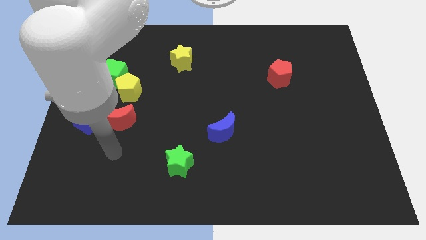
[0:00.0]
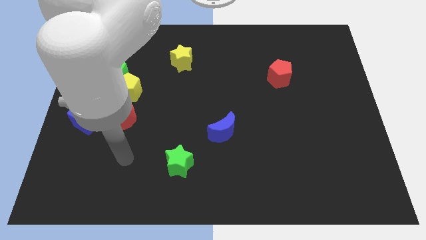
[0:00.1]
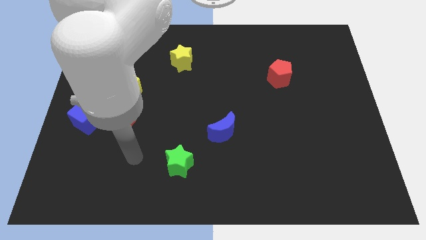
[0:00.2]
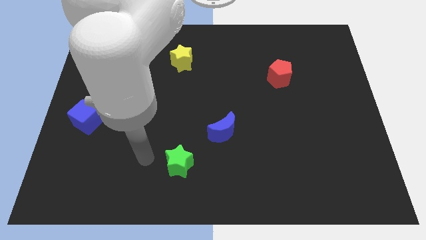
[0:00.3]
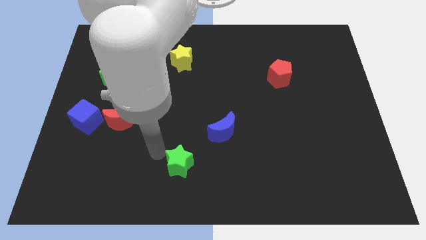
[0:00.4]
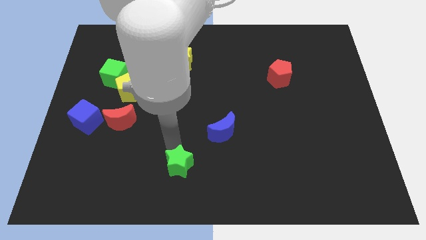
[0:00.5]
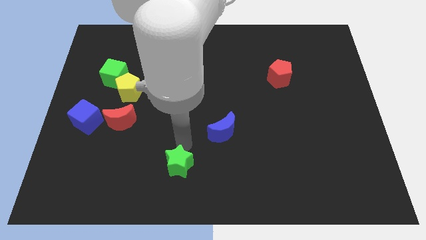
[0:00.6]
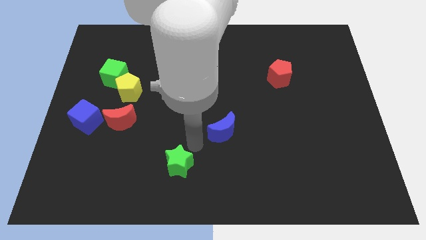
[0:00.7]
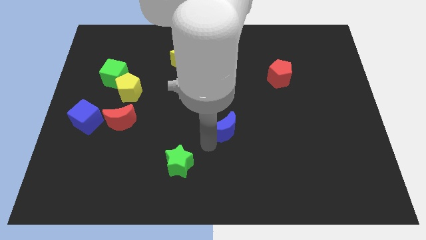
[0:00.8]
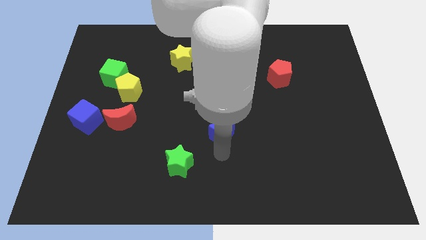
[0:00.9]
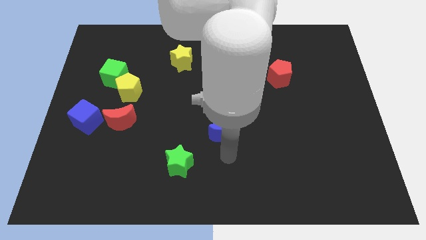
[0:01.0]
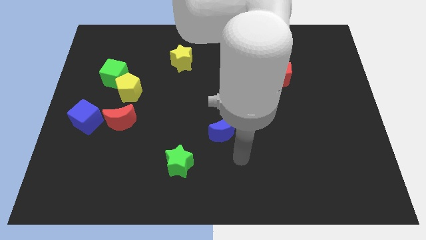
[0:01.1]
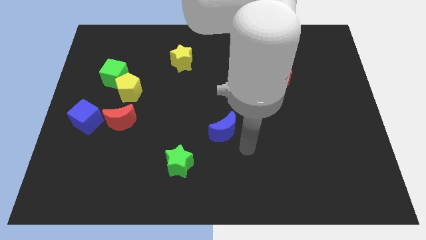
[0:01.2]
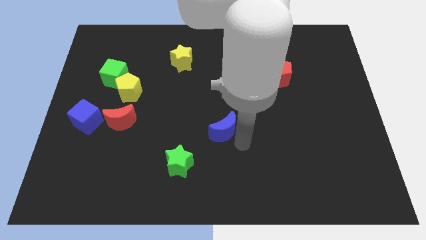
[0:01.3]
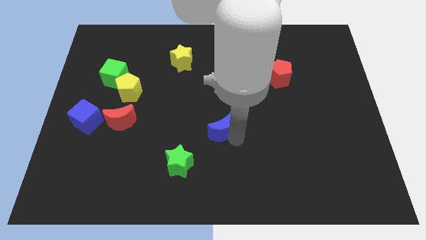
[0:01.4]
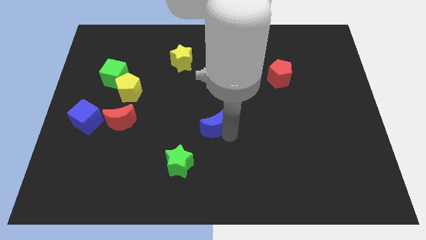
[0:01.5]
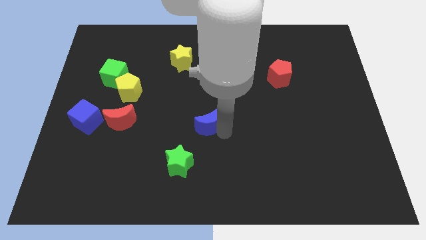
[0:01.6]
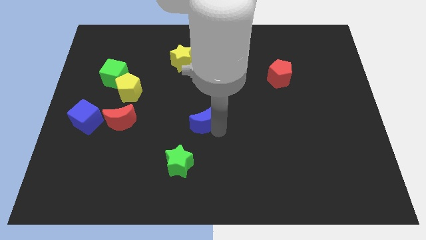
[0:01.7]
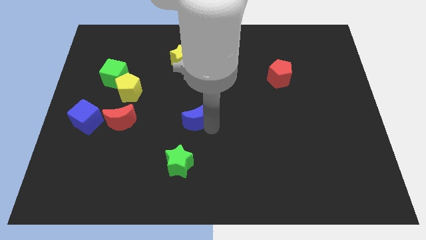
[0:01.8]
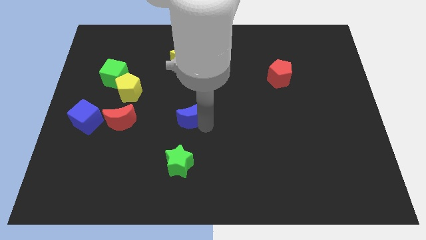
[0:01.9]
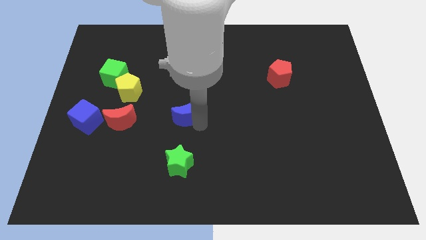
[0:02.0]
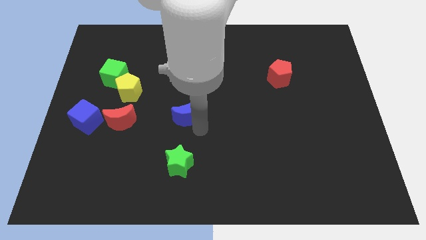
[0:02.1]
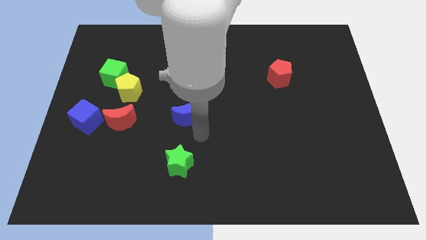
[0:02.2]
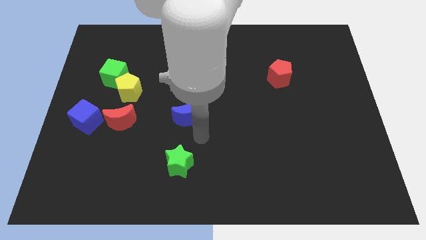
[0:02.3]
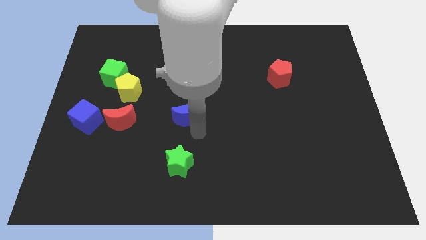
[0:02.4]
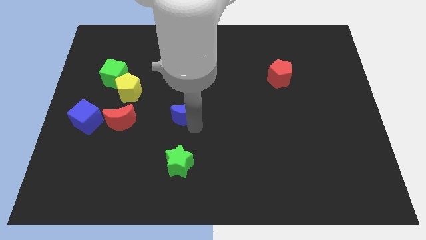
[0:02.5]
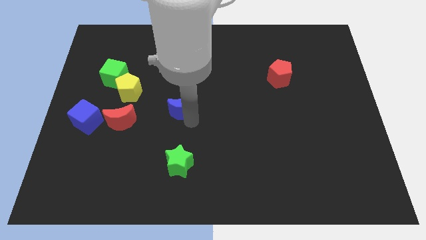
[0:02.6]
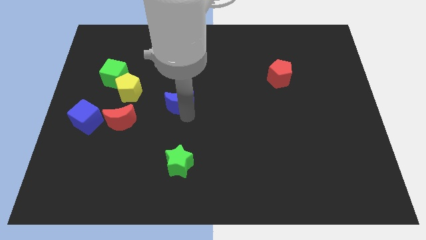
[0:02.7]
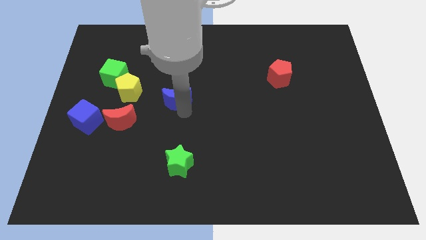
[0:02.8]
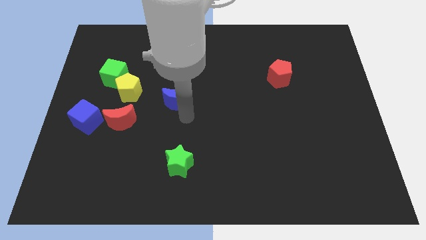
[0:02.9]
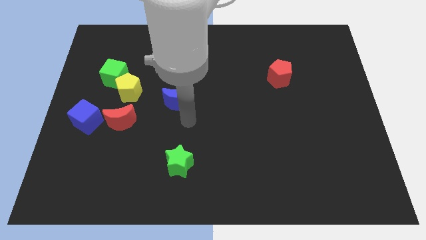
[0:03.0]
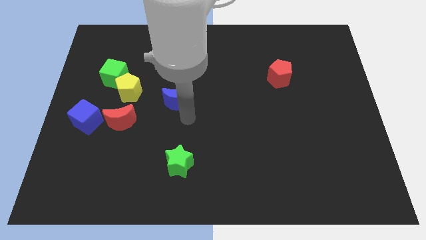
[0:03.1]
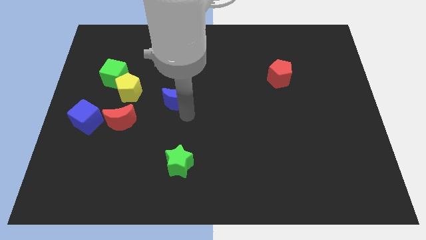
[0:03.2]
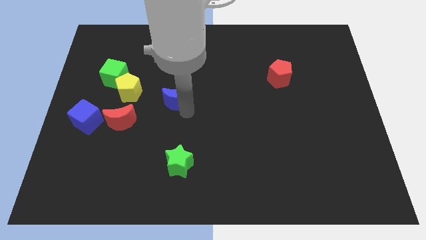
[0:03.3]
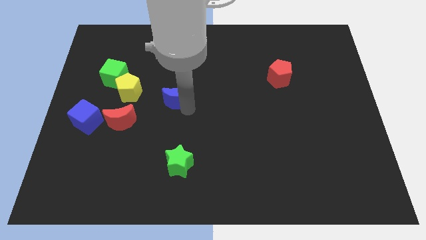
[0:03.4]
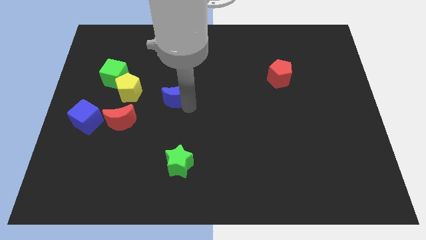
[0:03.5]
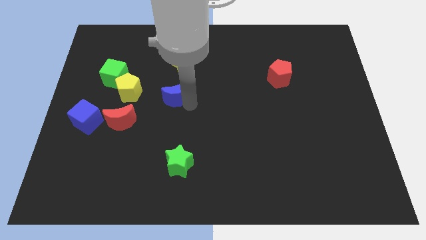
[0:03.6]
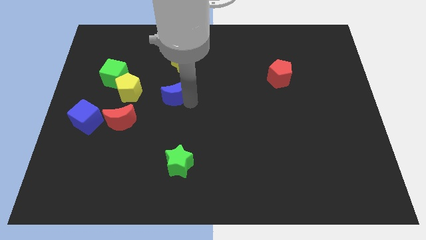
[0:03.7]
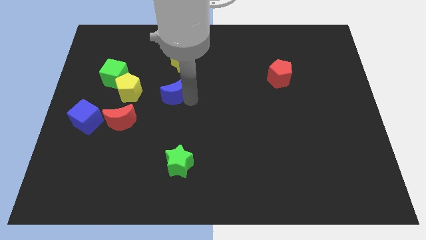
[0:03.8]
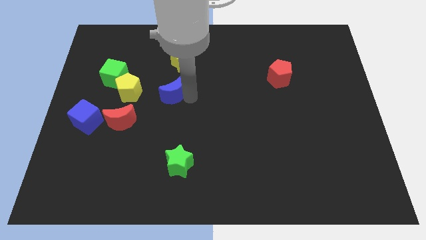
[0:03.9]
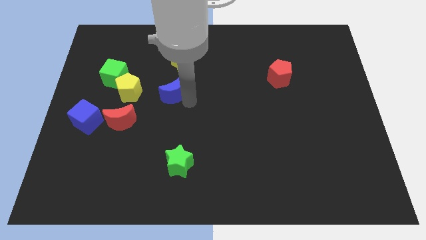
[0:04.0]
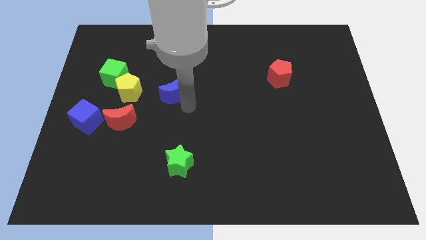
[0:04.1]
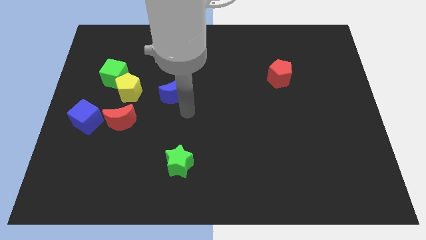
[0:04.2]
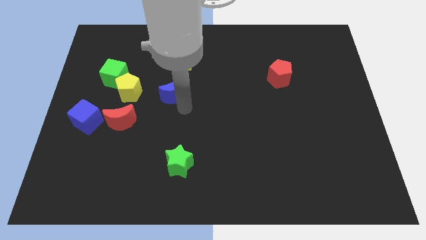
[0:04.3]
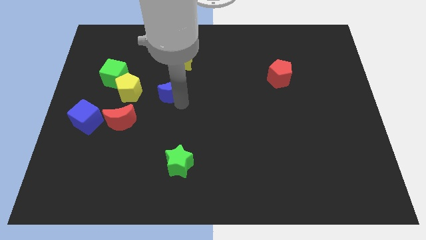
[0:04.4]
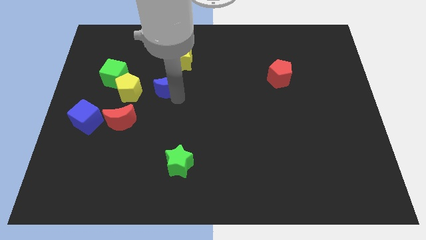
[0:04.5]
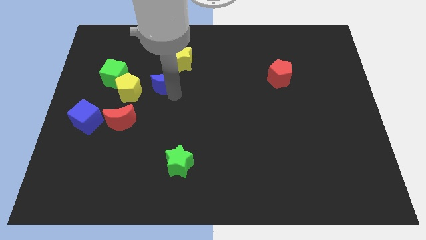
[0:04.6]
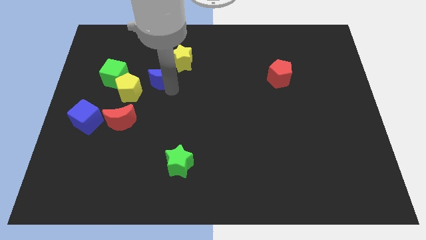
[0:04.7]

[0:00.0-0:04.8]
move the blue moon upwards and left diagonally

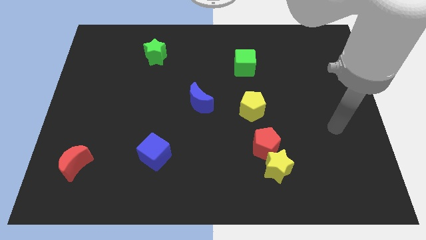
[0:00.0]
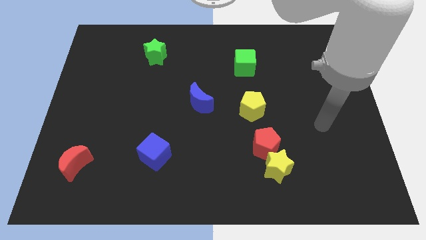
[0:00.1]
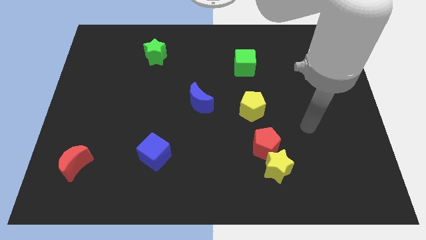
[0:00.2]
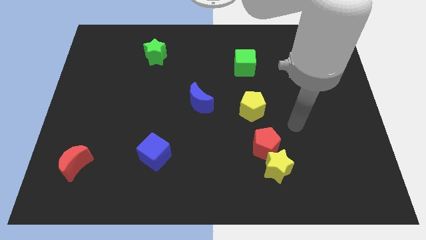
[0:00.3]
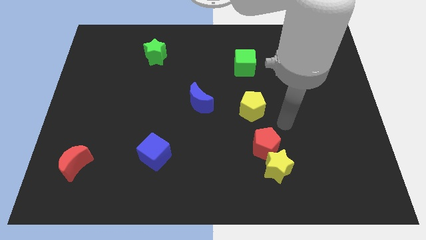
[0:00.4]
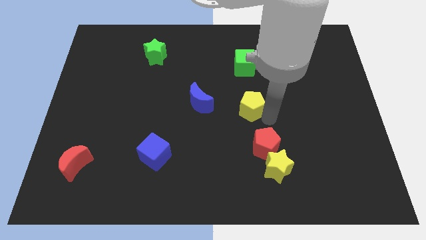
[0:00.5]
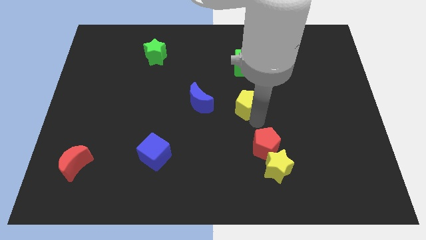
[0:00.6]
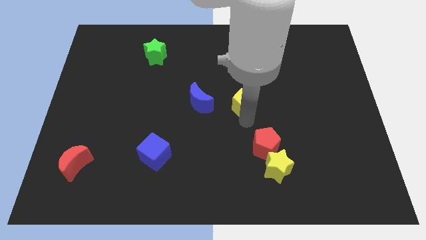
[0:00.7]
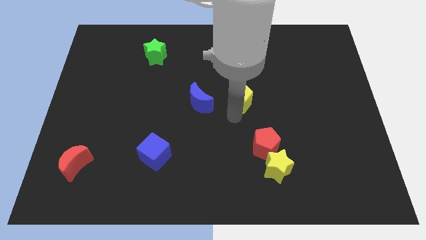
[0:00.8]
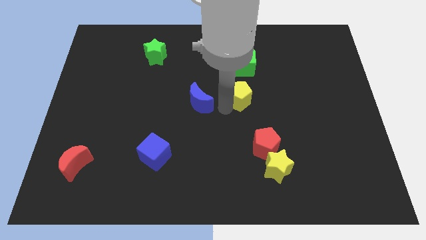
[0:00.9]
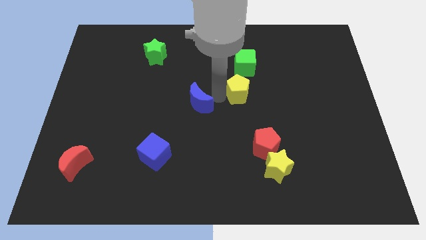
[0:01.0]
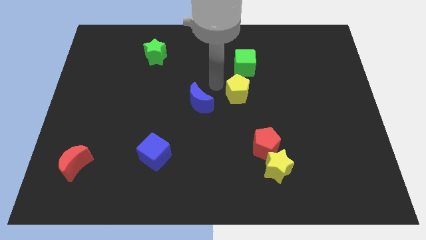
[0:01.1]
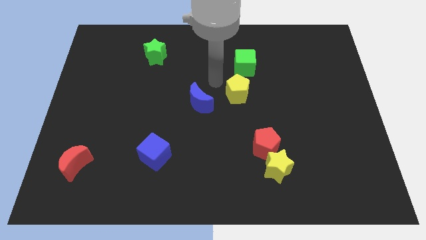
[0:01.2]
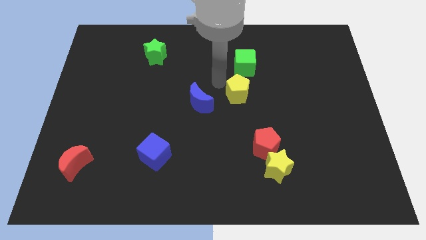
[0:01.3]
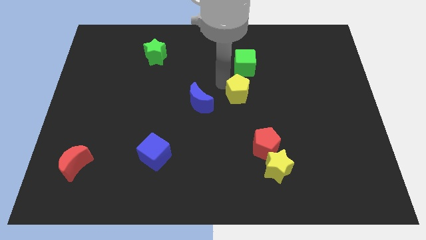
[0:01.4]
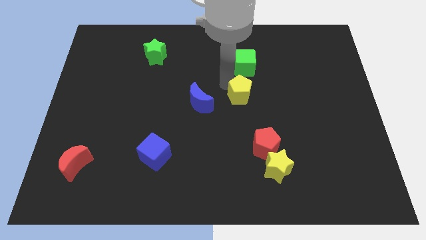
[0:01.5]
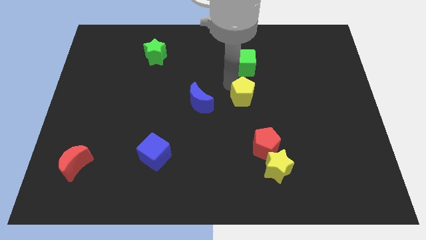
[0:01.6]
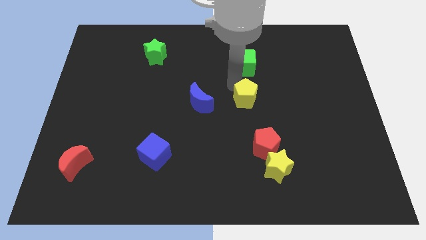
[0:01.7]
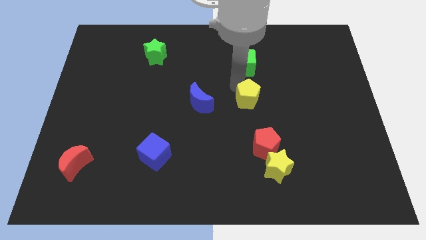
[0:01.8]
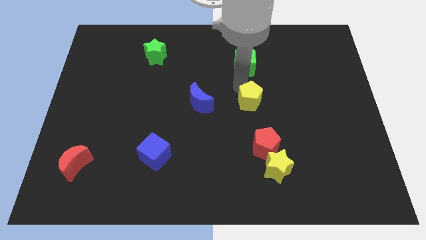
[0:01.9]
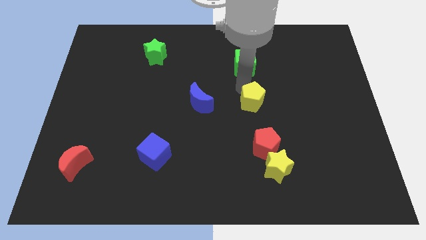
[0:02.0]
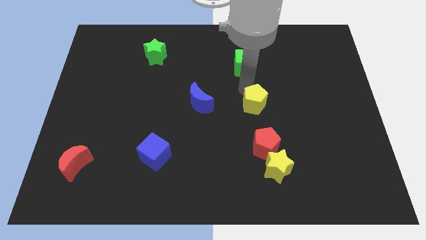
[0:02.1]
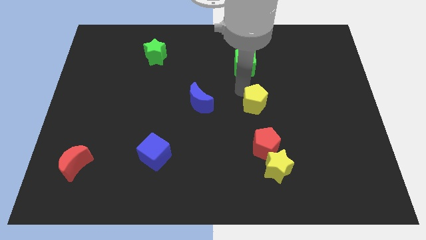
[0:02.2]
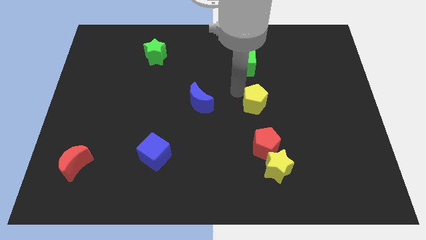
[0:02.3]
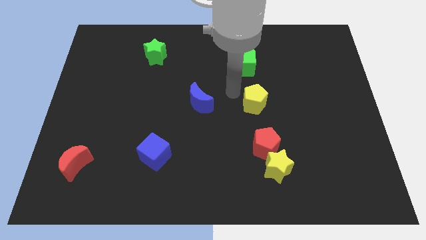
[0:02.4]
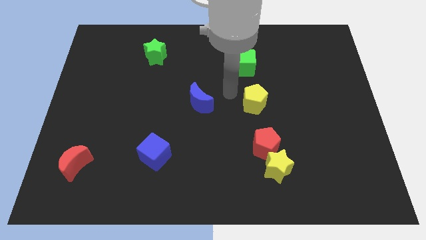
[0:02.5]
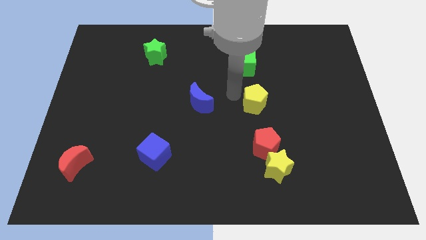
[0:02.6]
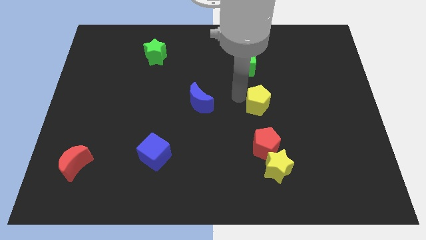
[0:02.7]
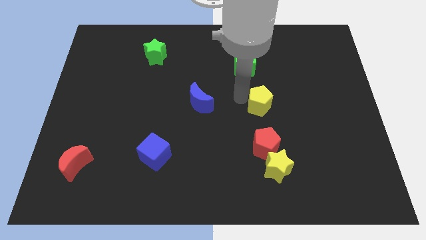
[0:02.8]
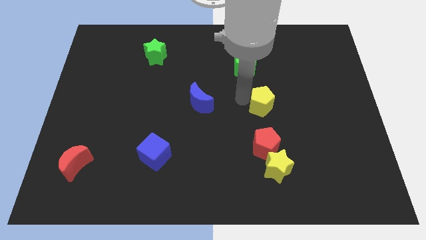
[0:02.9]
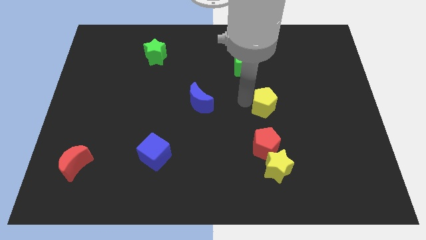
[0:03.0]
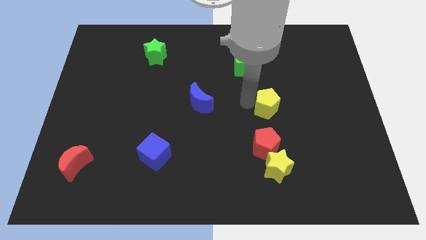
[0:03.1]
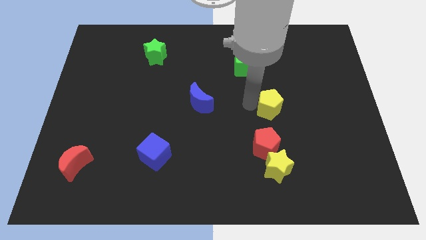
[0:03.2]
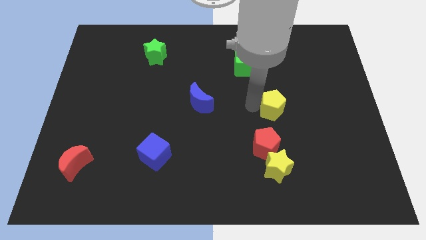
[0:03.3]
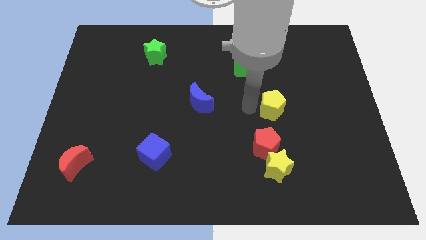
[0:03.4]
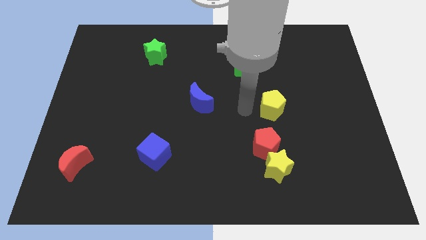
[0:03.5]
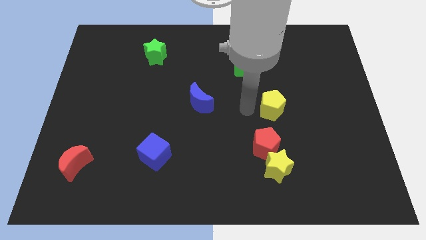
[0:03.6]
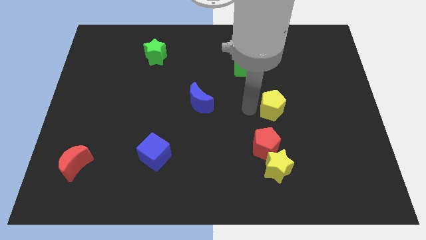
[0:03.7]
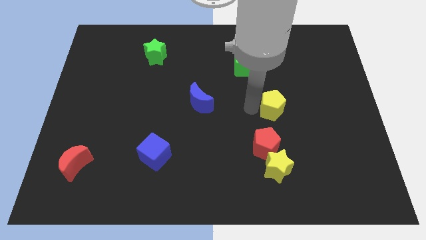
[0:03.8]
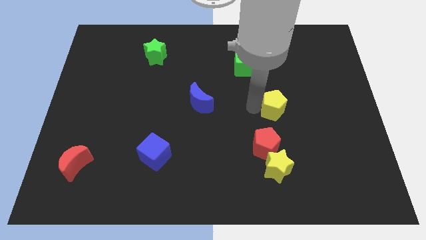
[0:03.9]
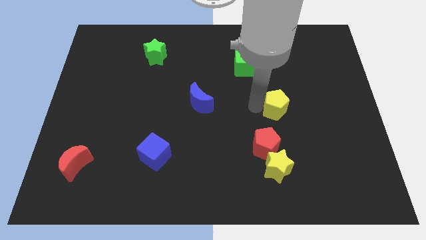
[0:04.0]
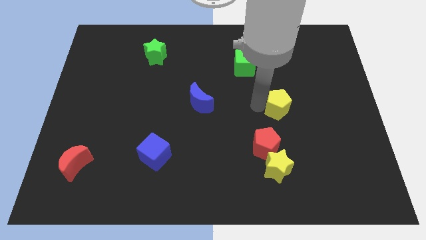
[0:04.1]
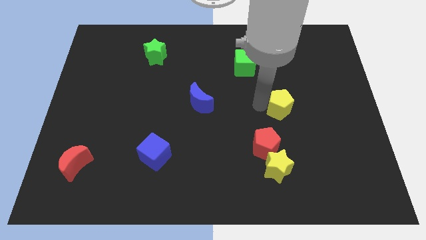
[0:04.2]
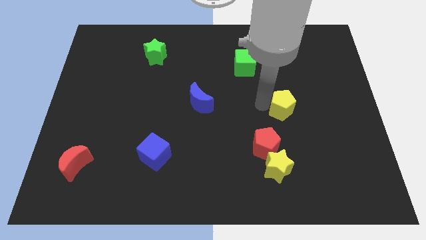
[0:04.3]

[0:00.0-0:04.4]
push the yellow pentagon a little right
